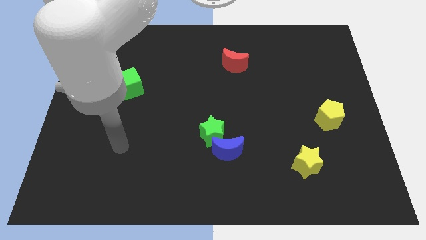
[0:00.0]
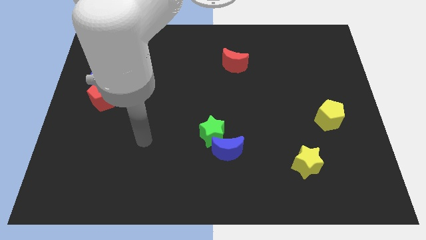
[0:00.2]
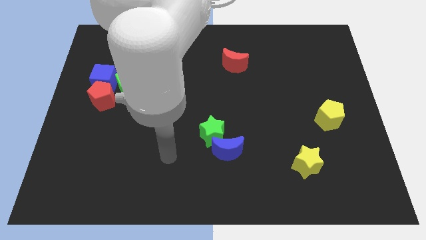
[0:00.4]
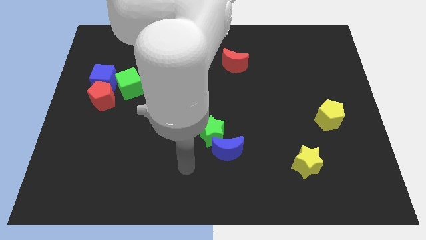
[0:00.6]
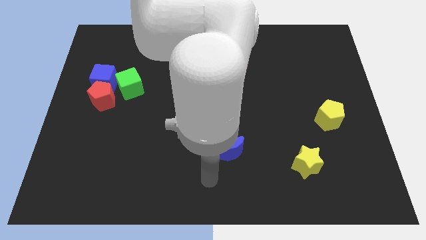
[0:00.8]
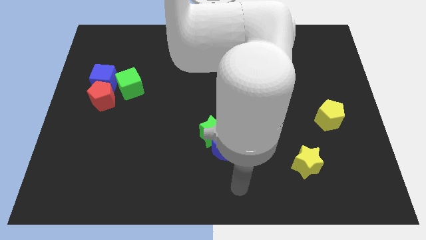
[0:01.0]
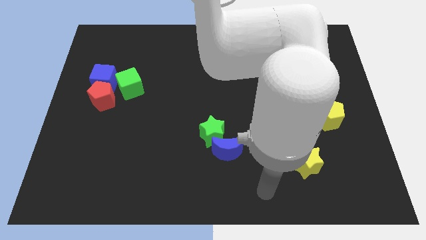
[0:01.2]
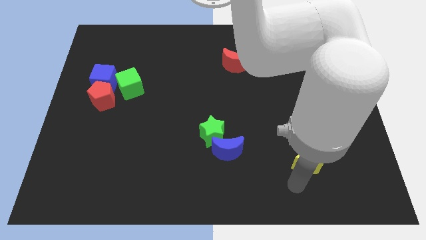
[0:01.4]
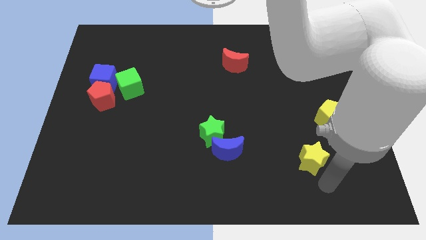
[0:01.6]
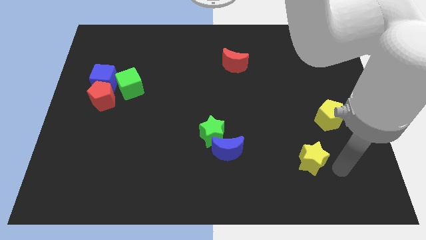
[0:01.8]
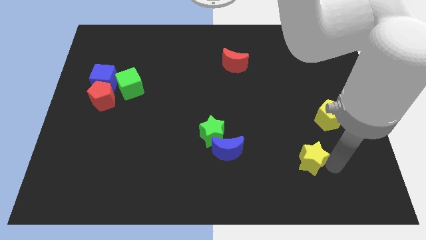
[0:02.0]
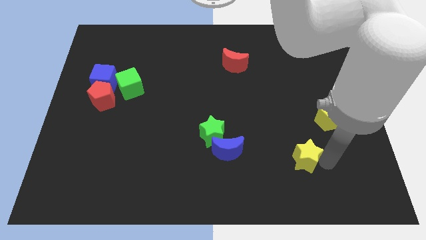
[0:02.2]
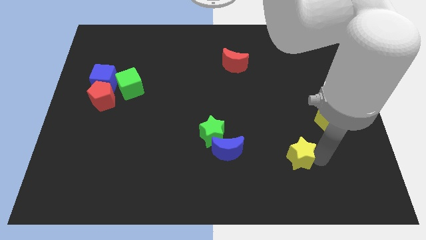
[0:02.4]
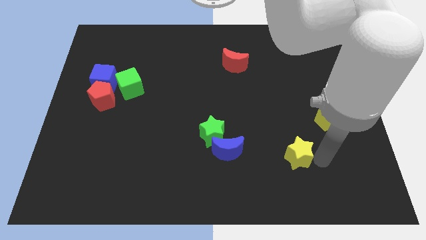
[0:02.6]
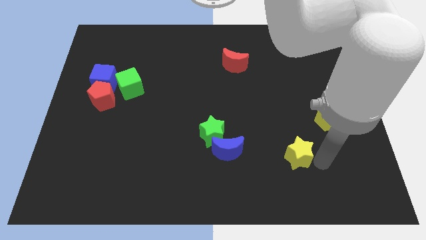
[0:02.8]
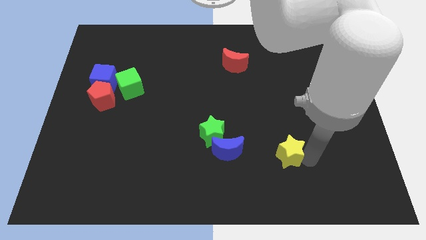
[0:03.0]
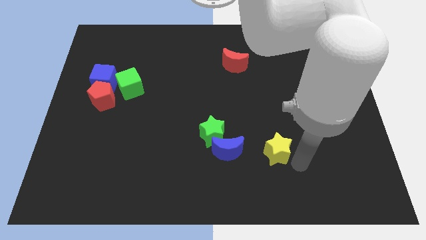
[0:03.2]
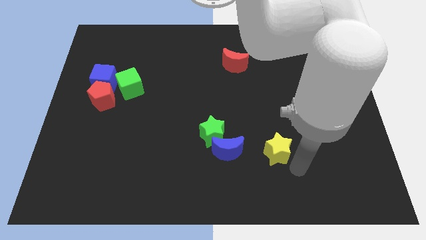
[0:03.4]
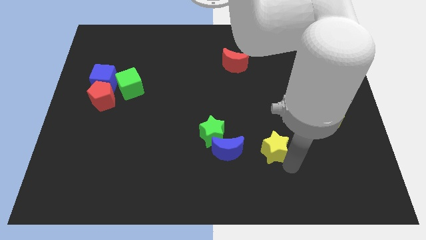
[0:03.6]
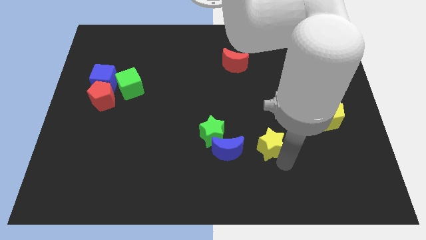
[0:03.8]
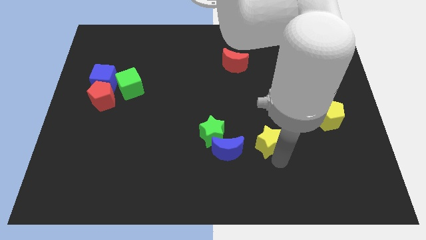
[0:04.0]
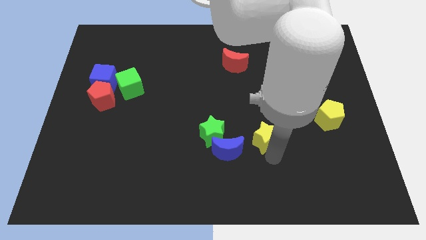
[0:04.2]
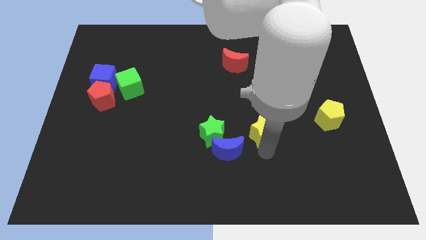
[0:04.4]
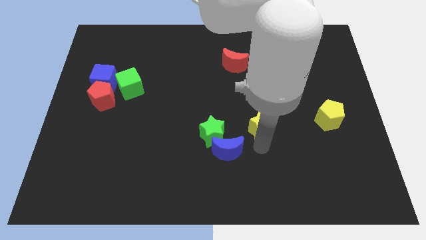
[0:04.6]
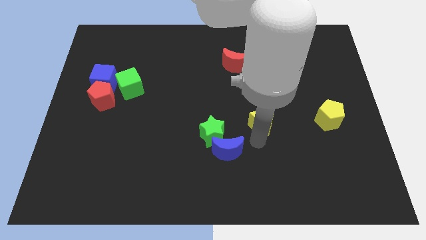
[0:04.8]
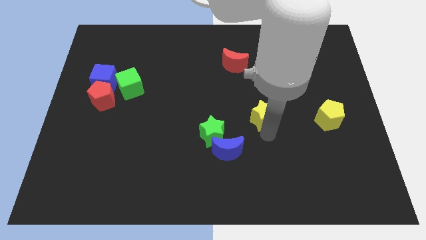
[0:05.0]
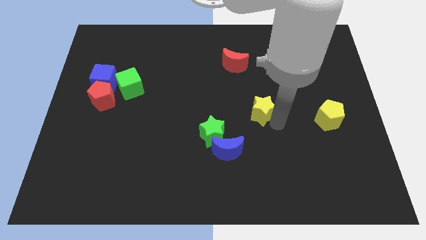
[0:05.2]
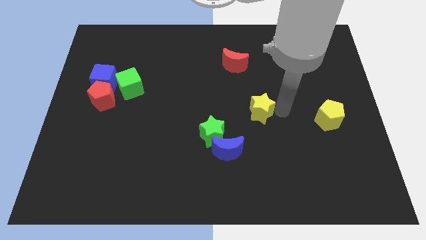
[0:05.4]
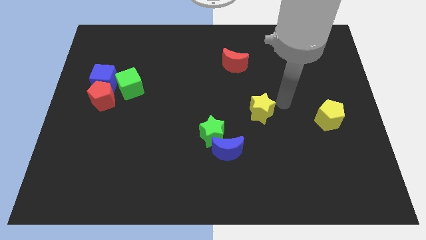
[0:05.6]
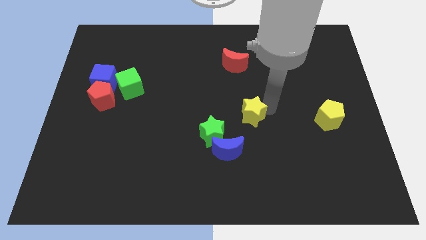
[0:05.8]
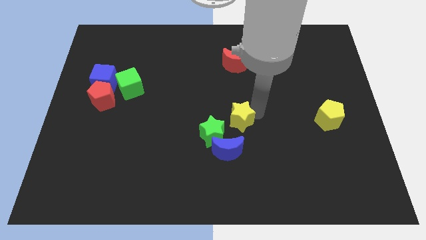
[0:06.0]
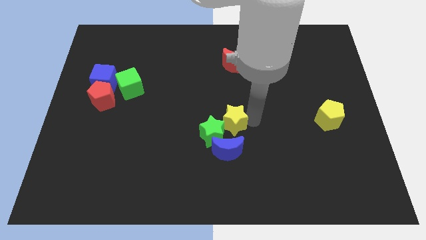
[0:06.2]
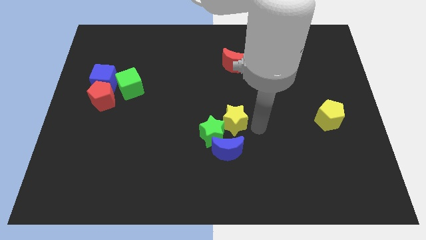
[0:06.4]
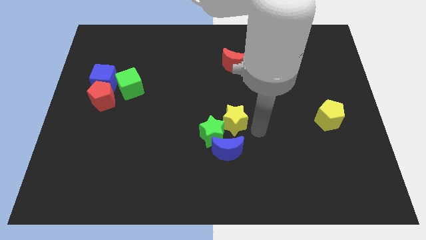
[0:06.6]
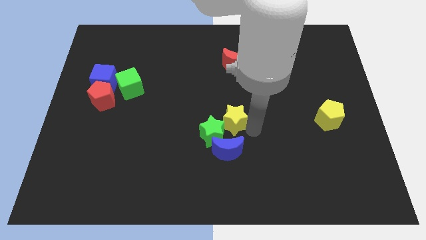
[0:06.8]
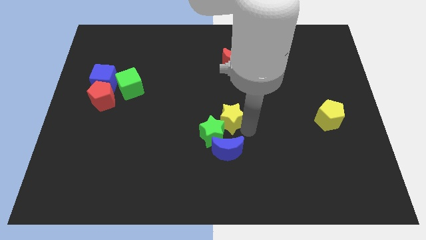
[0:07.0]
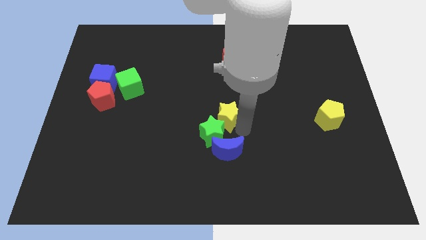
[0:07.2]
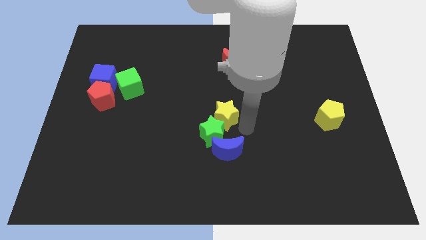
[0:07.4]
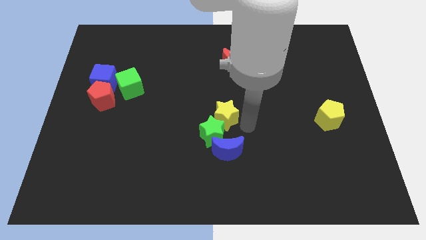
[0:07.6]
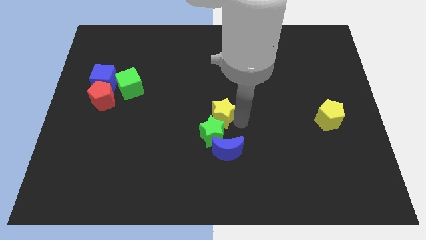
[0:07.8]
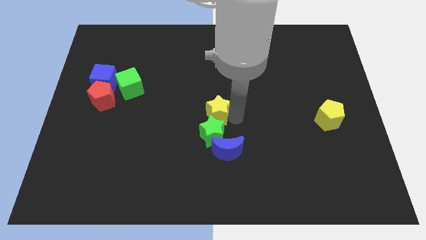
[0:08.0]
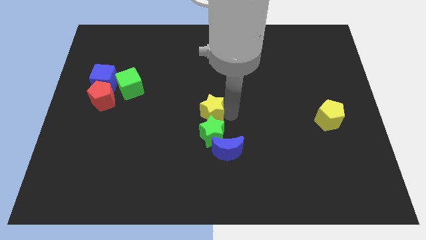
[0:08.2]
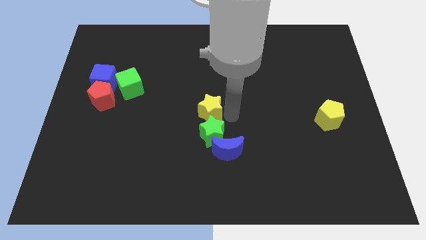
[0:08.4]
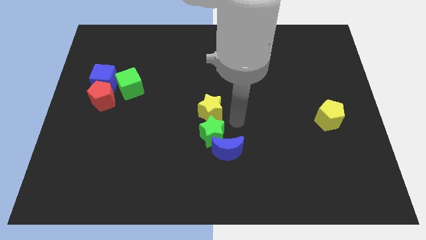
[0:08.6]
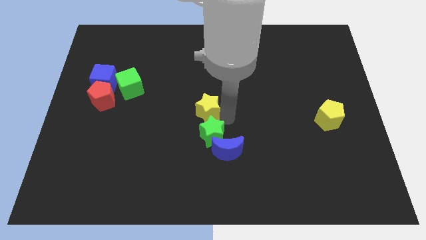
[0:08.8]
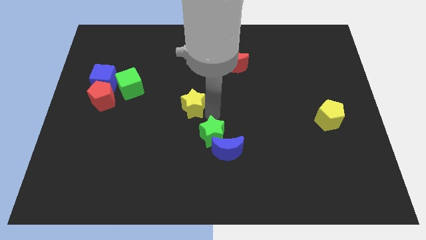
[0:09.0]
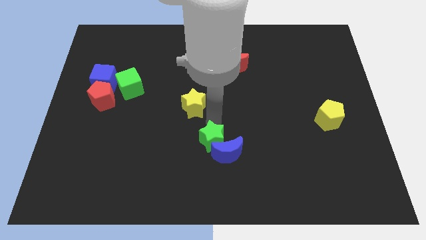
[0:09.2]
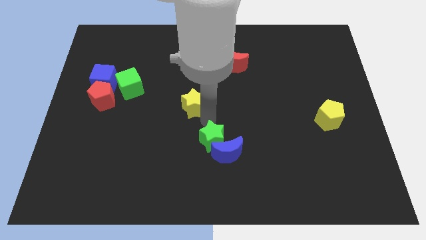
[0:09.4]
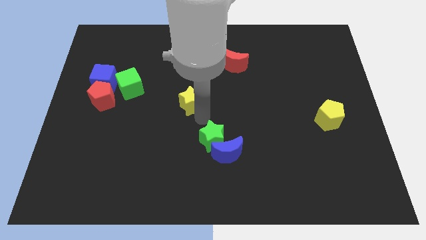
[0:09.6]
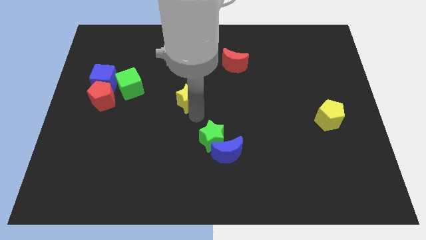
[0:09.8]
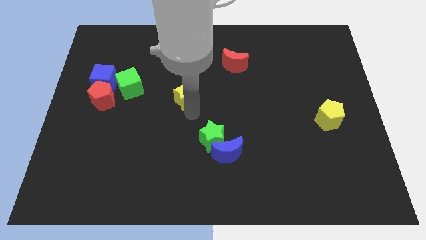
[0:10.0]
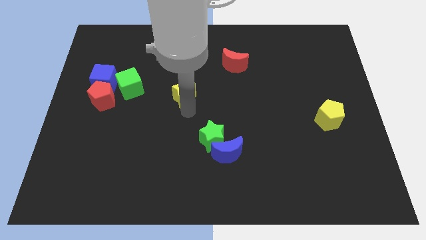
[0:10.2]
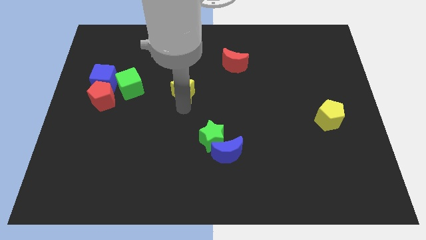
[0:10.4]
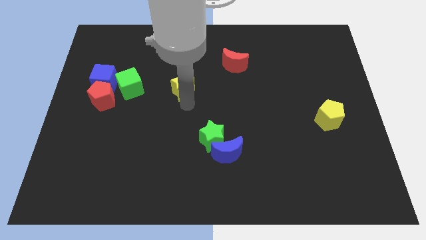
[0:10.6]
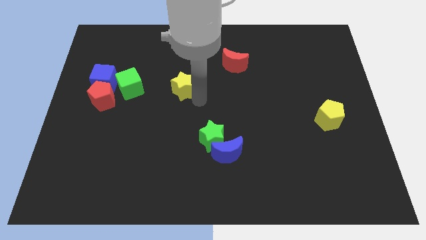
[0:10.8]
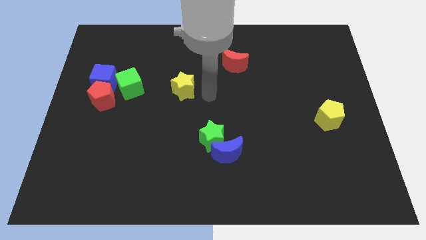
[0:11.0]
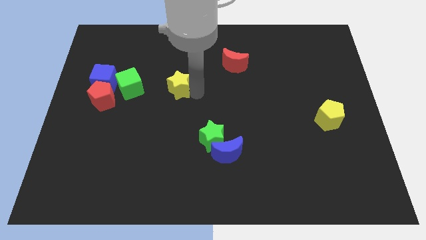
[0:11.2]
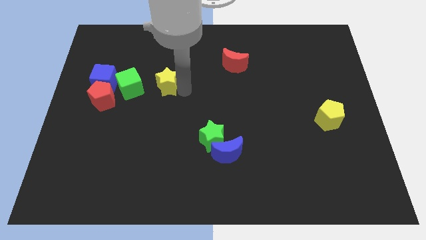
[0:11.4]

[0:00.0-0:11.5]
move the yellow star to the right side of the blue cube

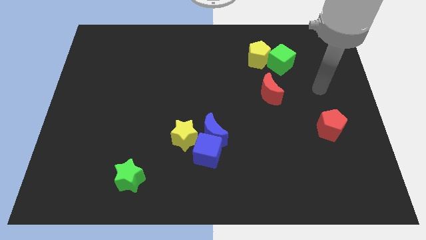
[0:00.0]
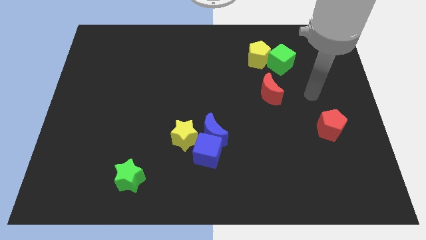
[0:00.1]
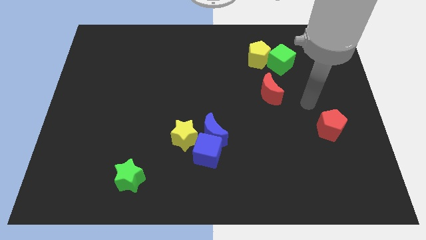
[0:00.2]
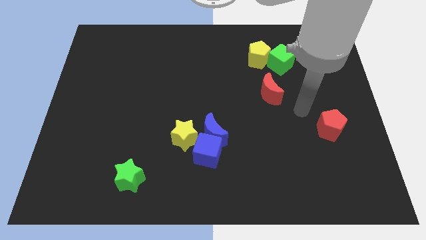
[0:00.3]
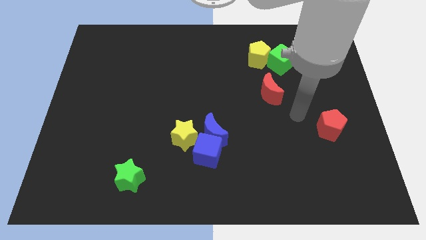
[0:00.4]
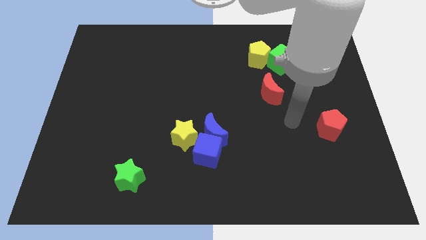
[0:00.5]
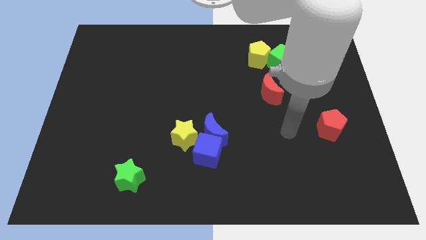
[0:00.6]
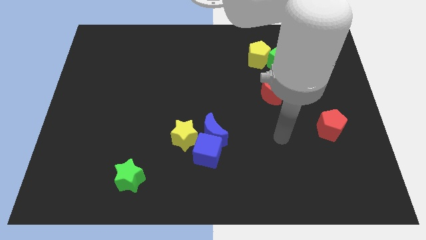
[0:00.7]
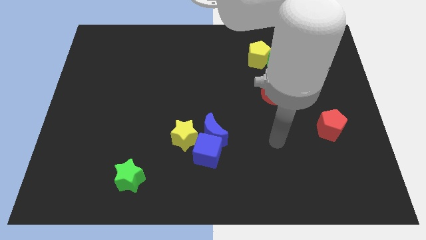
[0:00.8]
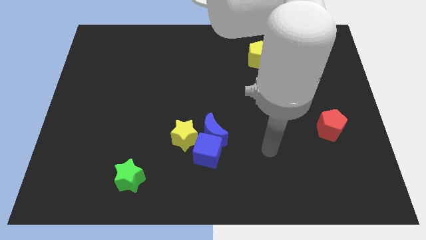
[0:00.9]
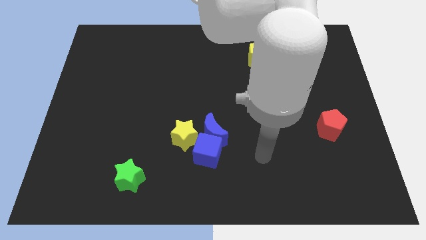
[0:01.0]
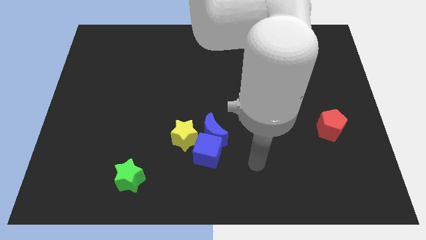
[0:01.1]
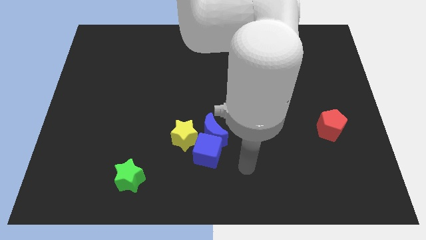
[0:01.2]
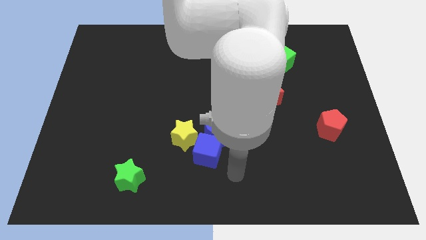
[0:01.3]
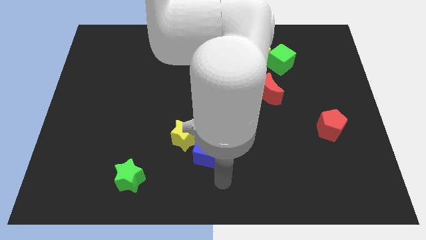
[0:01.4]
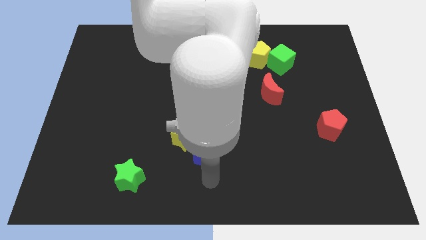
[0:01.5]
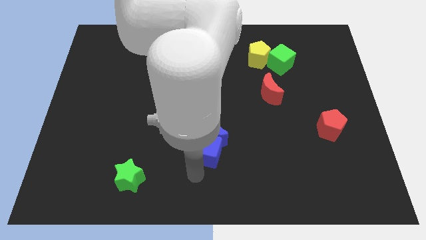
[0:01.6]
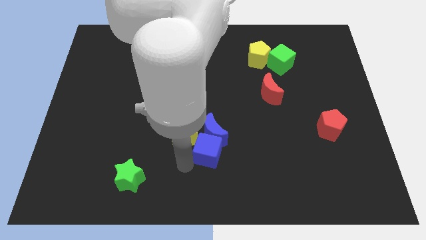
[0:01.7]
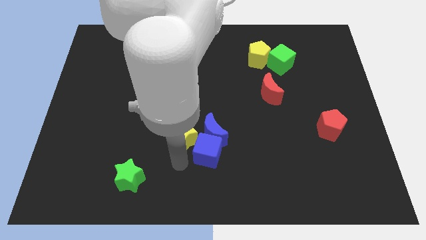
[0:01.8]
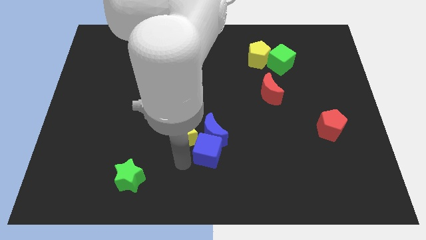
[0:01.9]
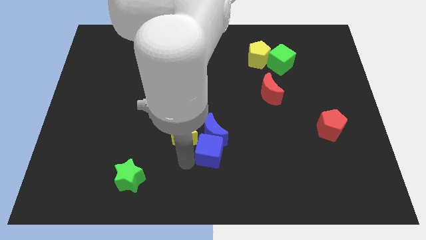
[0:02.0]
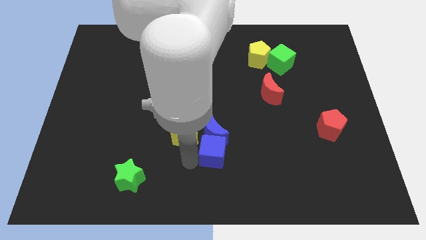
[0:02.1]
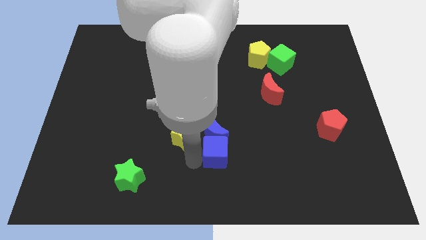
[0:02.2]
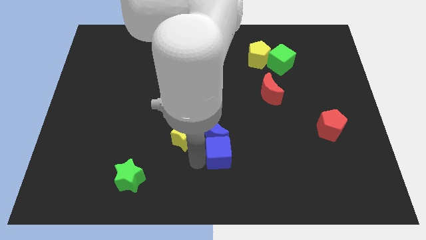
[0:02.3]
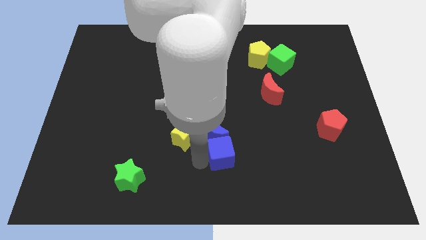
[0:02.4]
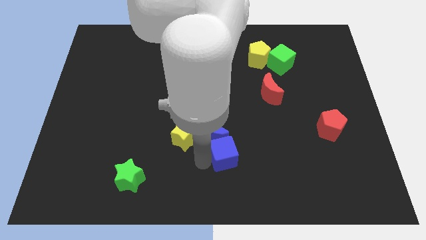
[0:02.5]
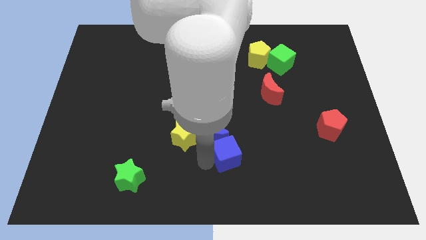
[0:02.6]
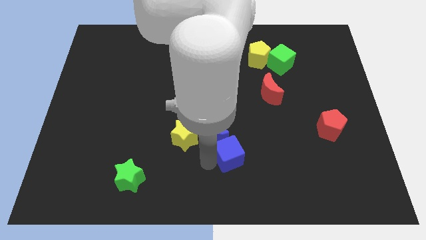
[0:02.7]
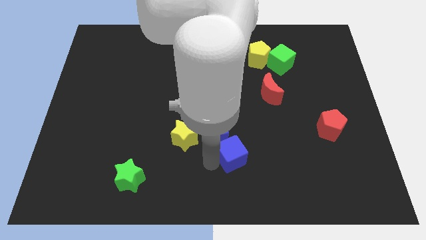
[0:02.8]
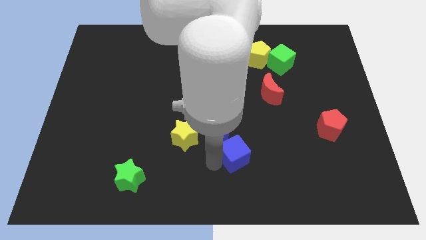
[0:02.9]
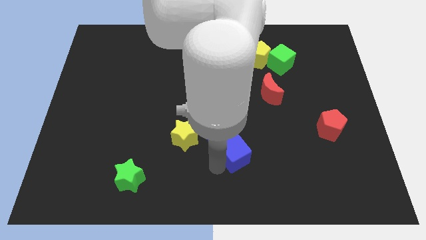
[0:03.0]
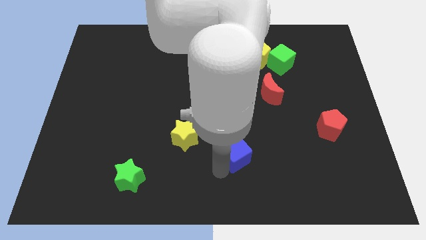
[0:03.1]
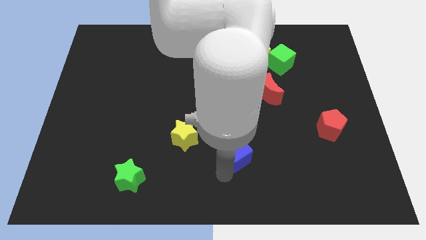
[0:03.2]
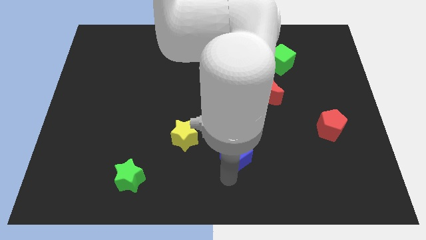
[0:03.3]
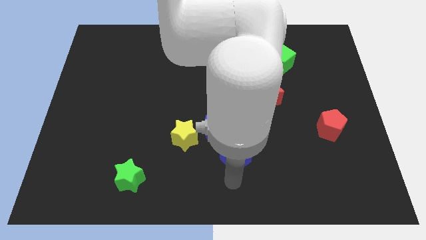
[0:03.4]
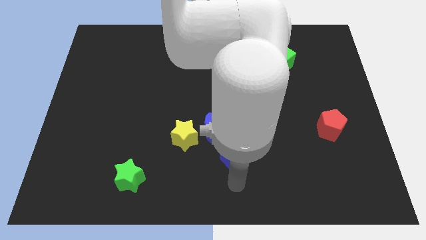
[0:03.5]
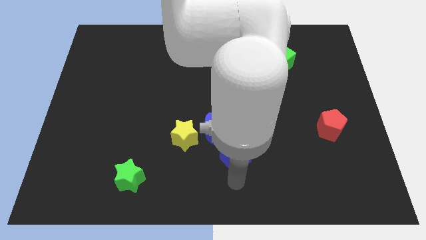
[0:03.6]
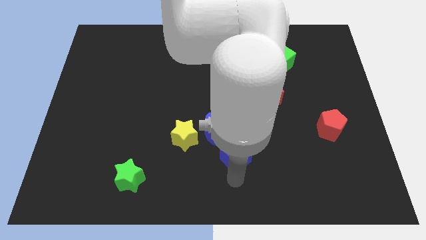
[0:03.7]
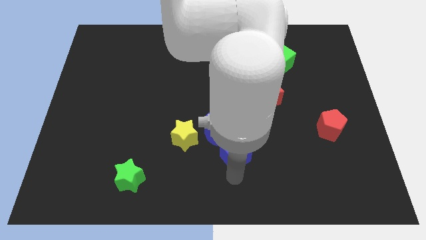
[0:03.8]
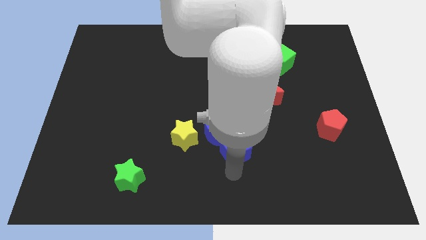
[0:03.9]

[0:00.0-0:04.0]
slide the blue cube to the right of the blue moon
